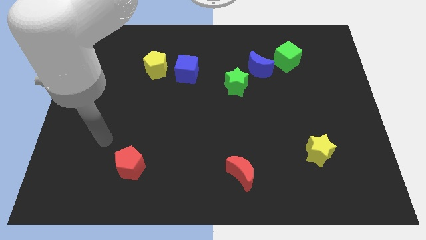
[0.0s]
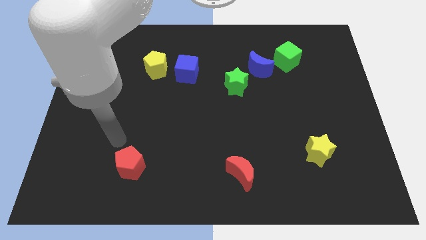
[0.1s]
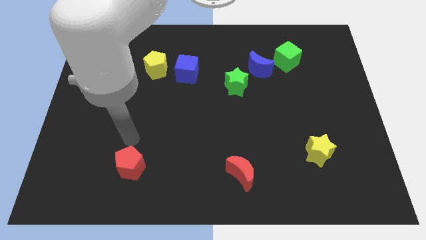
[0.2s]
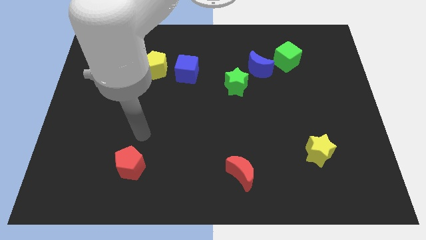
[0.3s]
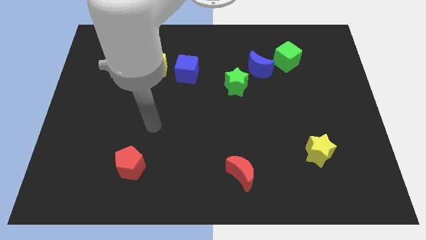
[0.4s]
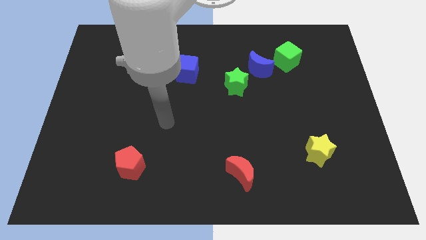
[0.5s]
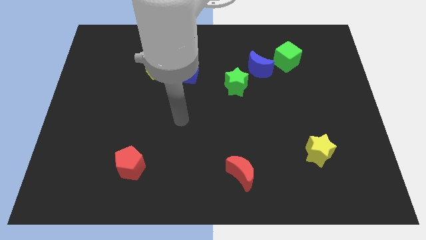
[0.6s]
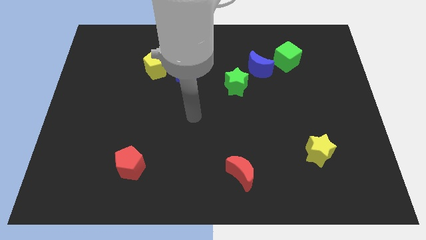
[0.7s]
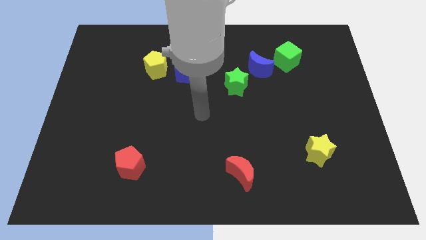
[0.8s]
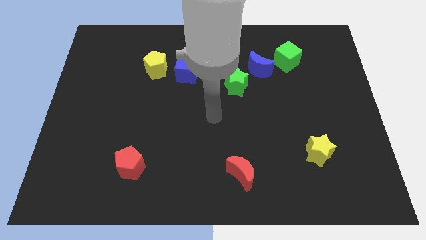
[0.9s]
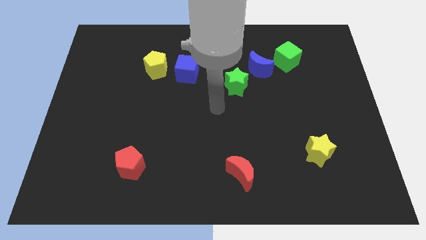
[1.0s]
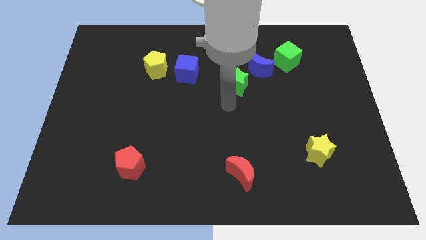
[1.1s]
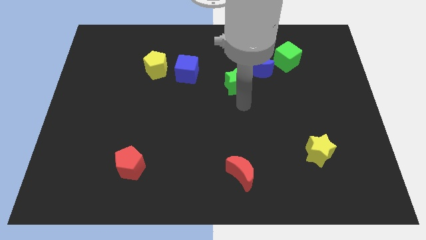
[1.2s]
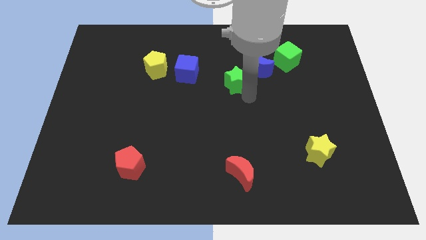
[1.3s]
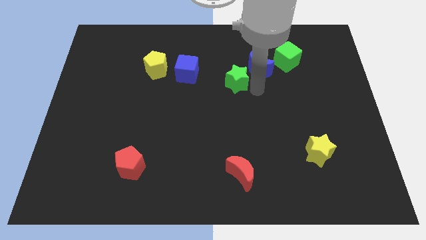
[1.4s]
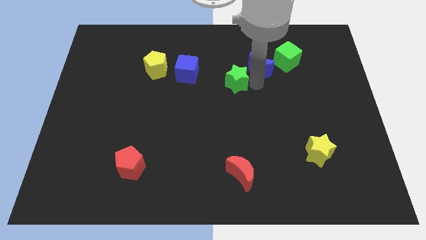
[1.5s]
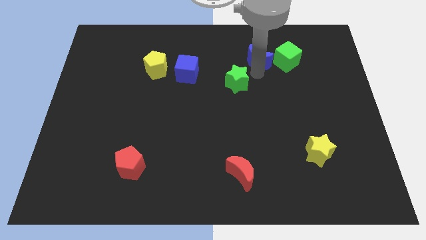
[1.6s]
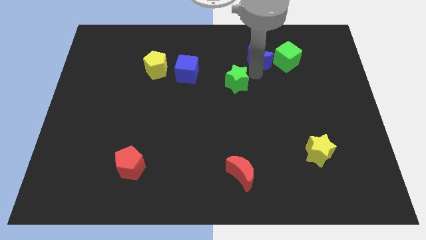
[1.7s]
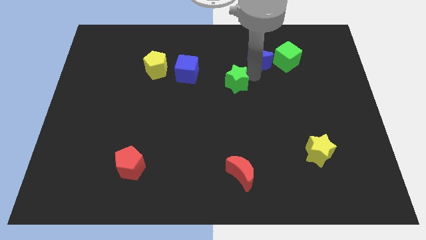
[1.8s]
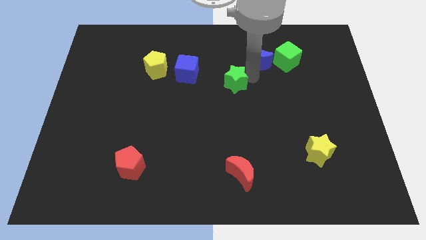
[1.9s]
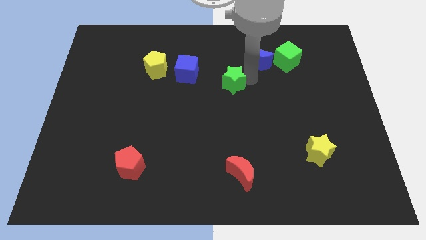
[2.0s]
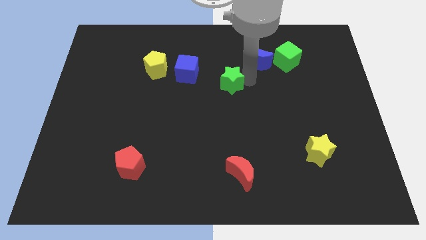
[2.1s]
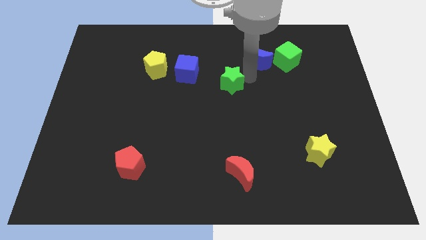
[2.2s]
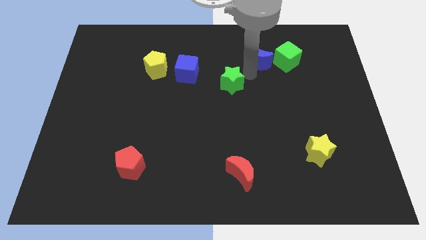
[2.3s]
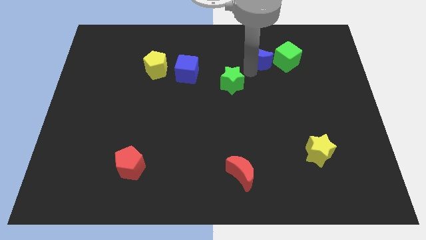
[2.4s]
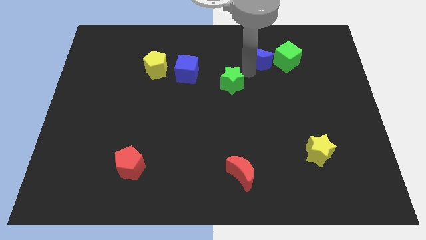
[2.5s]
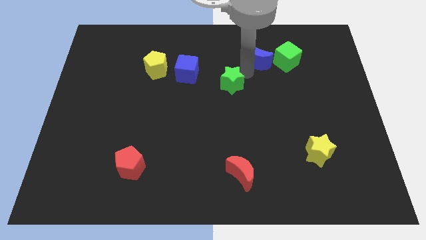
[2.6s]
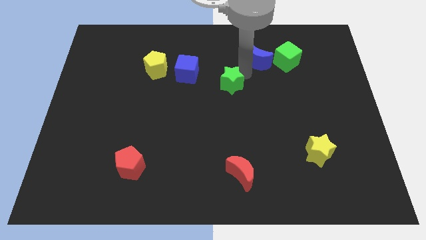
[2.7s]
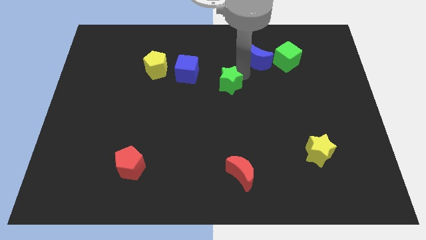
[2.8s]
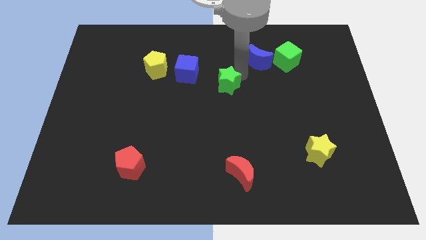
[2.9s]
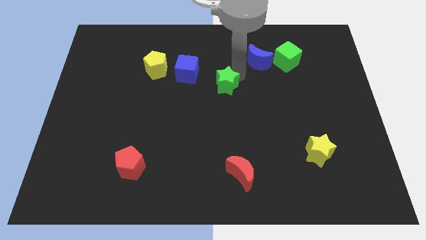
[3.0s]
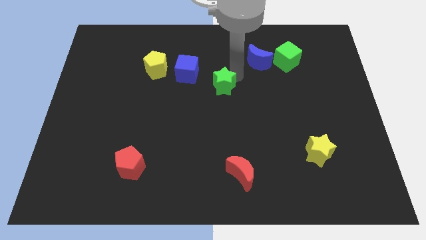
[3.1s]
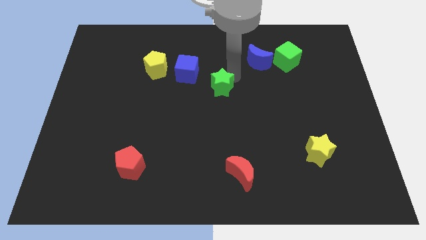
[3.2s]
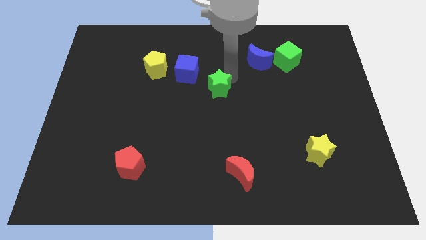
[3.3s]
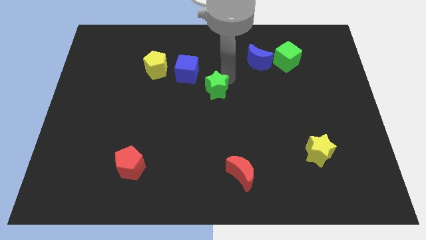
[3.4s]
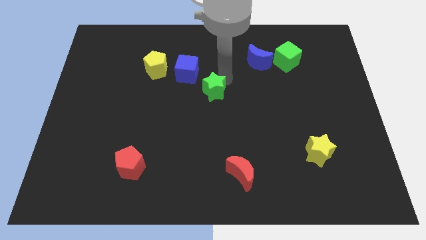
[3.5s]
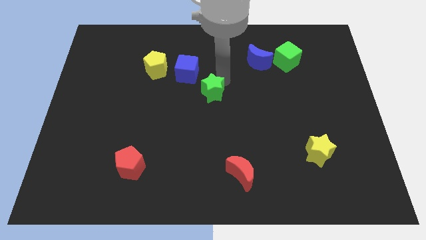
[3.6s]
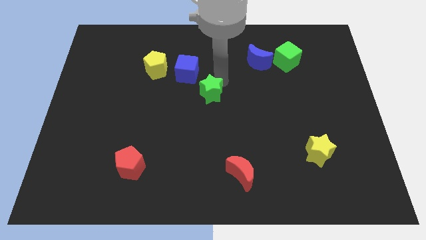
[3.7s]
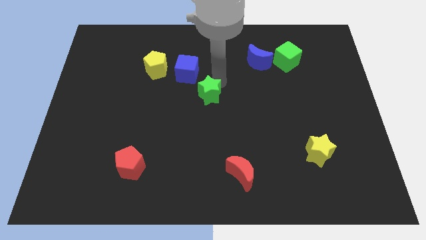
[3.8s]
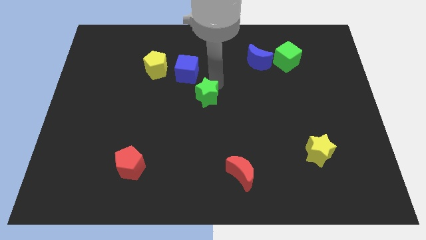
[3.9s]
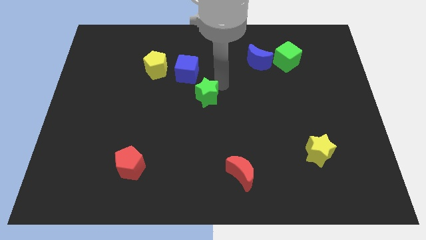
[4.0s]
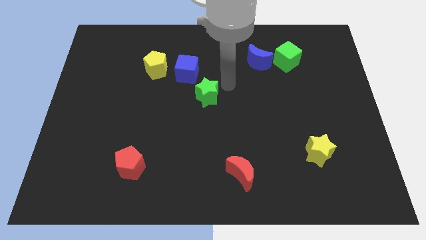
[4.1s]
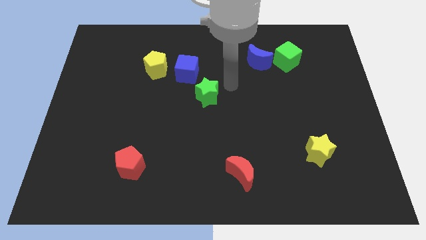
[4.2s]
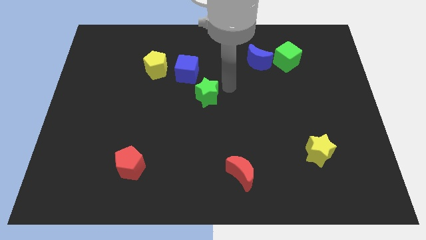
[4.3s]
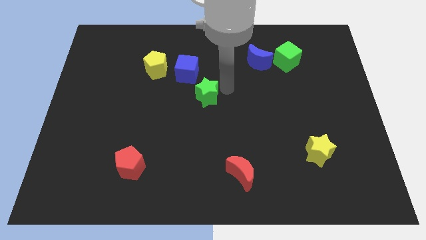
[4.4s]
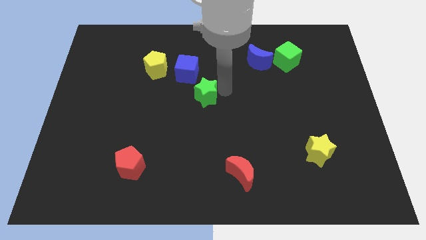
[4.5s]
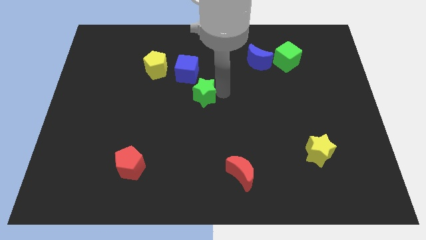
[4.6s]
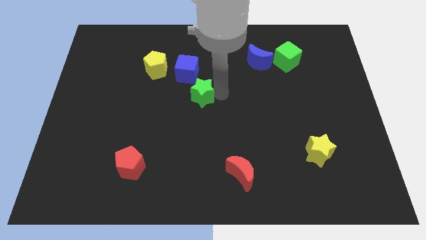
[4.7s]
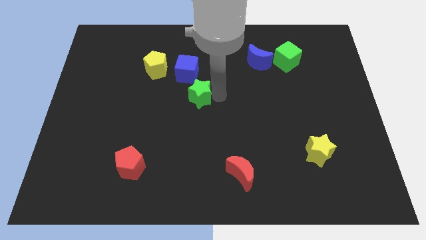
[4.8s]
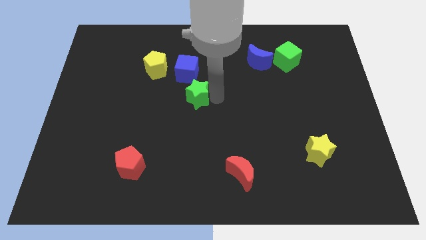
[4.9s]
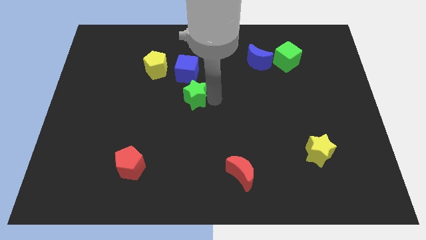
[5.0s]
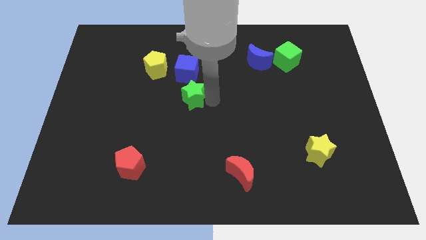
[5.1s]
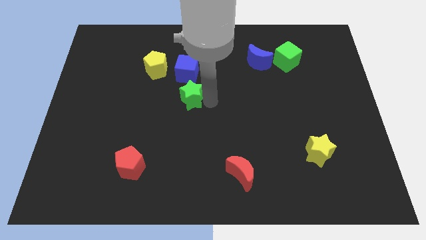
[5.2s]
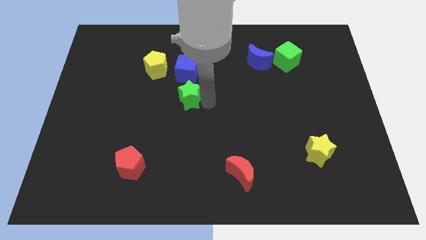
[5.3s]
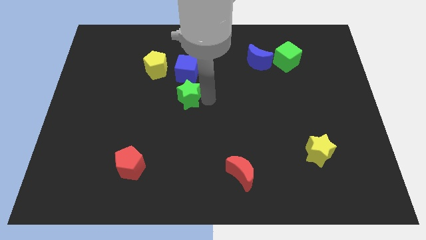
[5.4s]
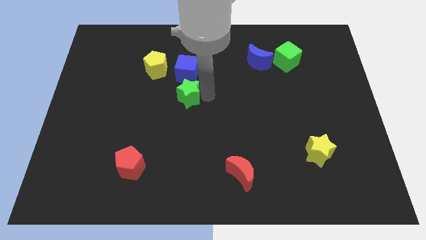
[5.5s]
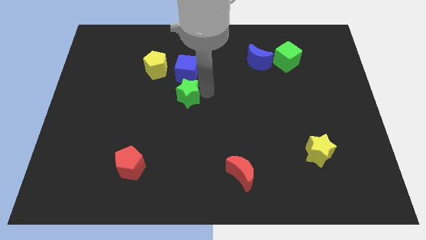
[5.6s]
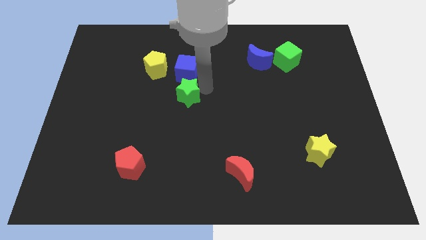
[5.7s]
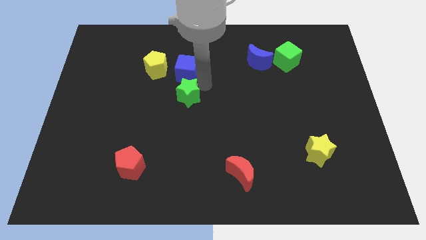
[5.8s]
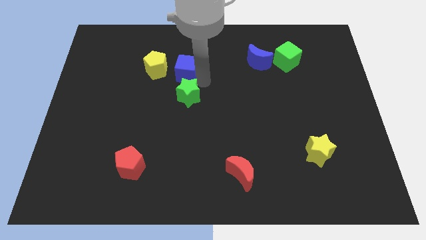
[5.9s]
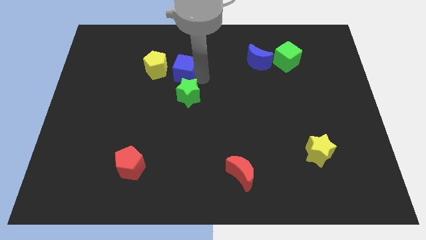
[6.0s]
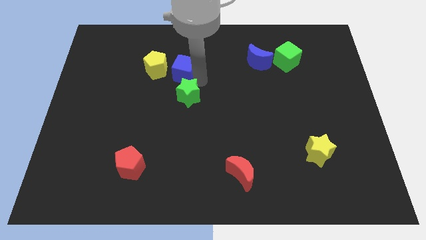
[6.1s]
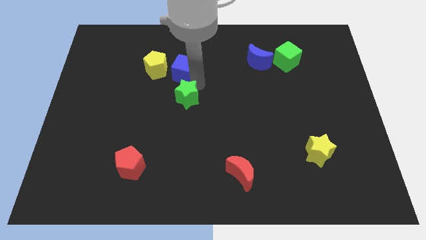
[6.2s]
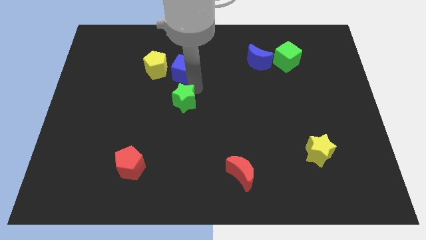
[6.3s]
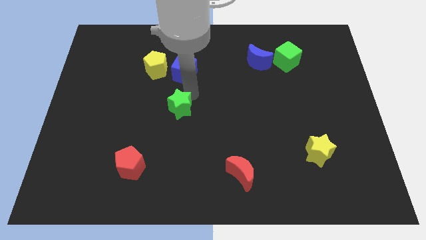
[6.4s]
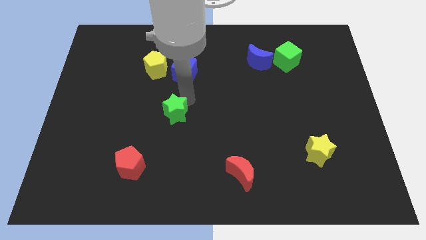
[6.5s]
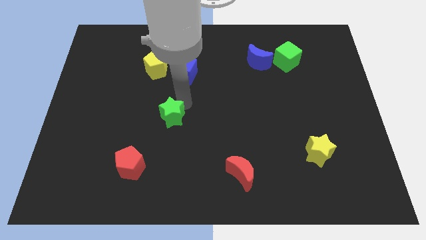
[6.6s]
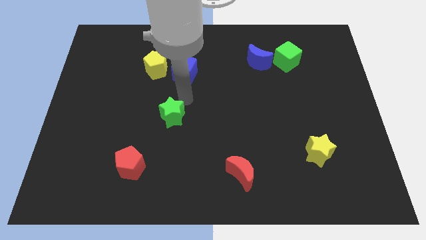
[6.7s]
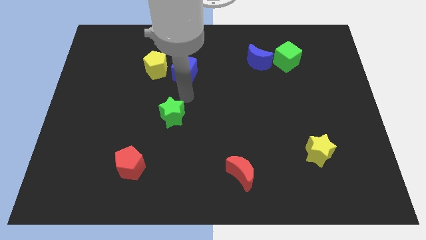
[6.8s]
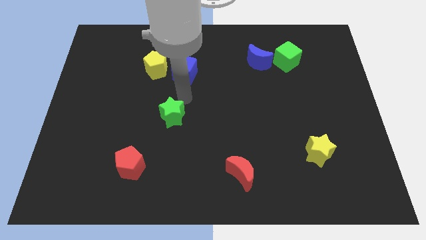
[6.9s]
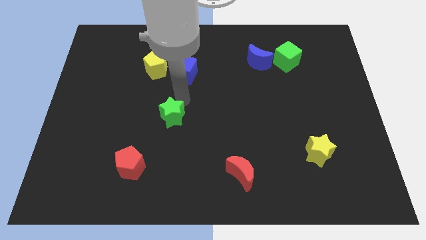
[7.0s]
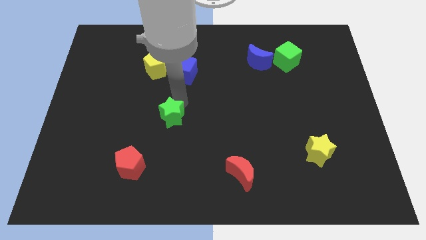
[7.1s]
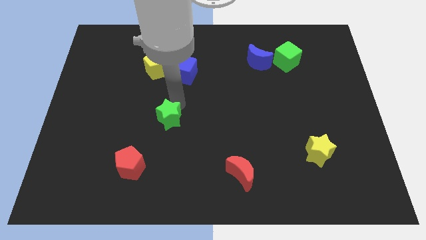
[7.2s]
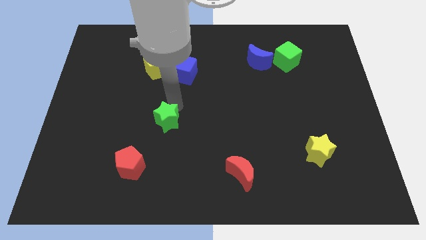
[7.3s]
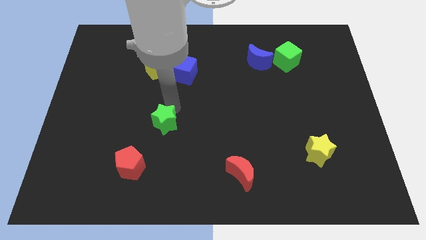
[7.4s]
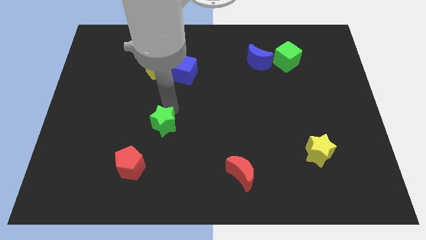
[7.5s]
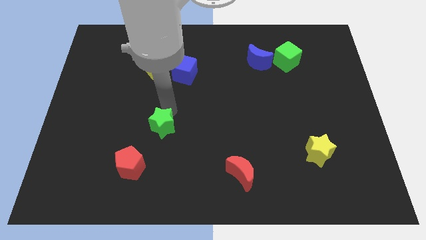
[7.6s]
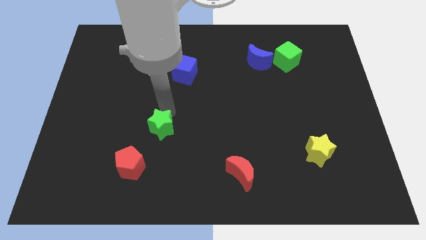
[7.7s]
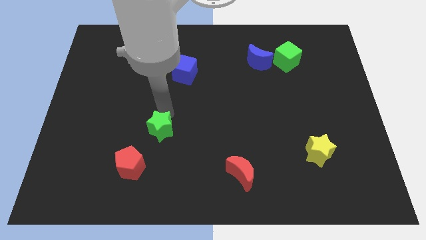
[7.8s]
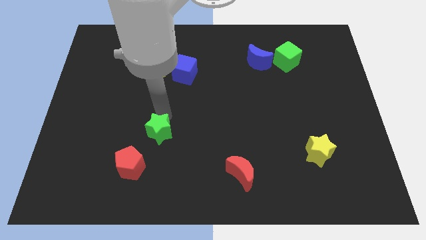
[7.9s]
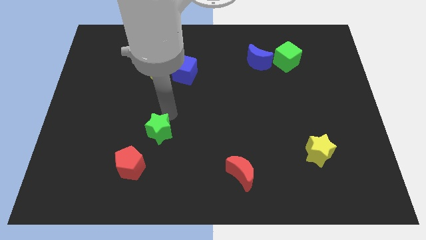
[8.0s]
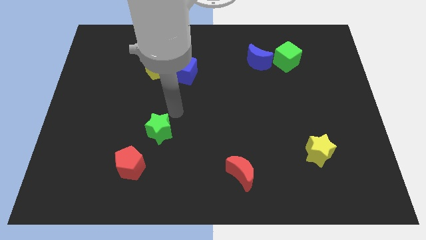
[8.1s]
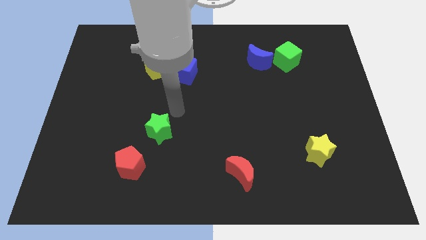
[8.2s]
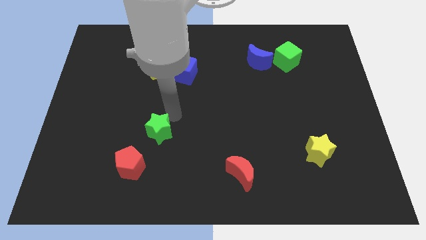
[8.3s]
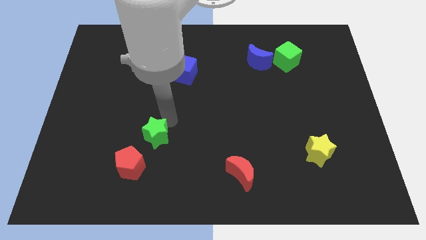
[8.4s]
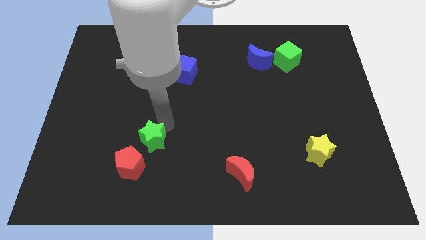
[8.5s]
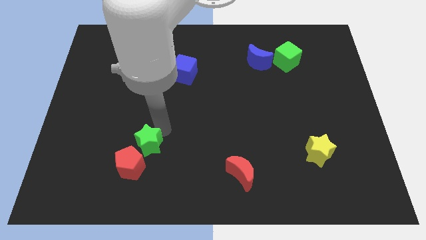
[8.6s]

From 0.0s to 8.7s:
slide the green star to the red pentagon
